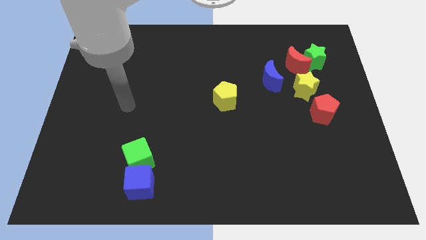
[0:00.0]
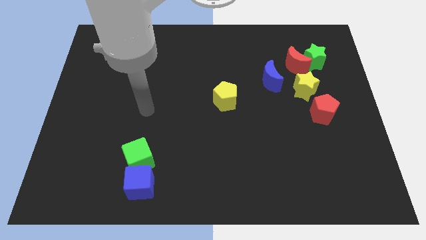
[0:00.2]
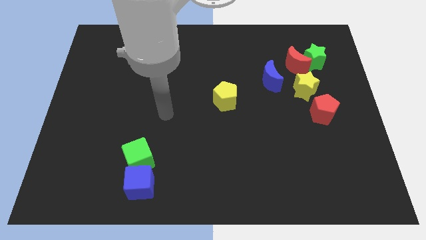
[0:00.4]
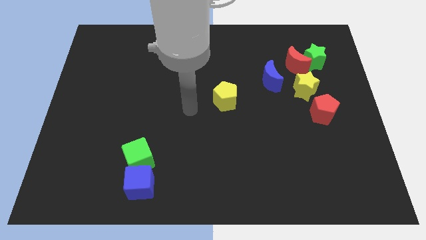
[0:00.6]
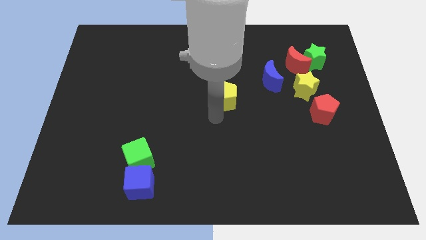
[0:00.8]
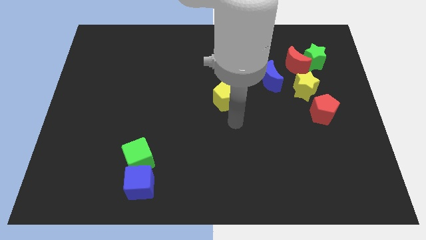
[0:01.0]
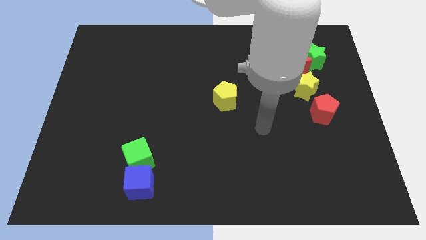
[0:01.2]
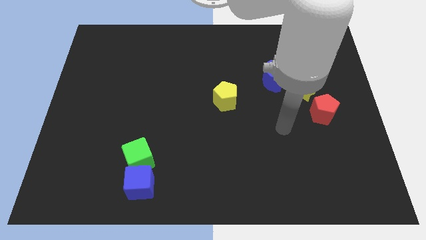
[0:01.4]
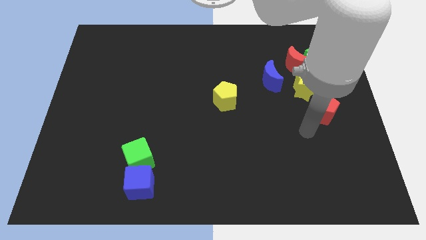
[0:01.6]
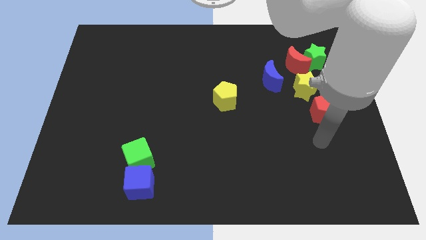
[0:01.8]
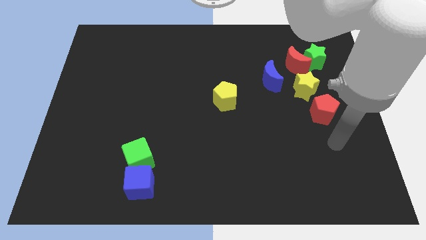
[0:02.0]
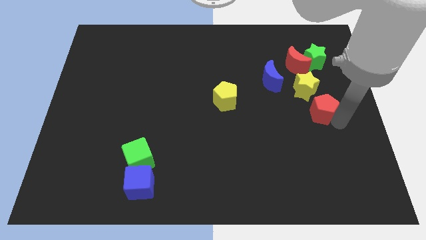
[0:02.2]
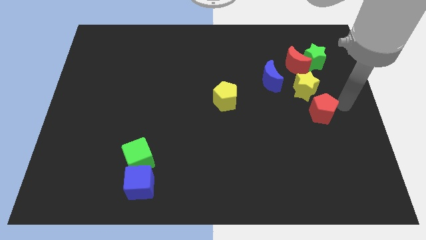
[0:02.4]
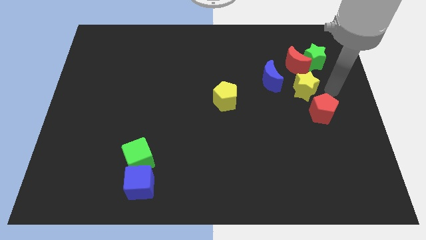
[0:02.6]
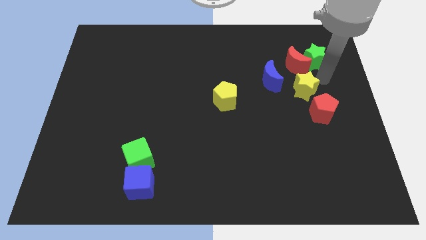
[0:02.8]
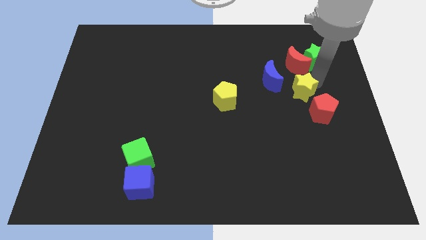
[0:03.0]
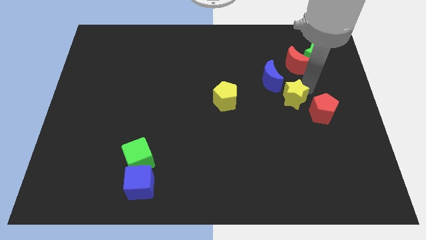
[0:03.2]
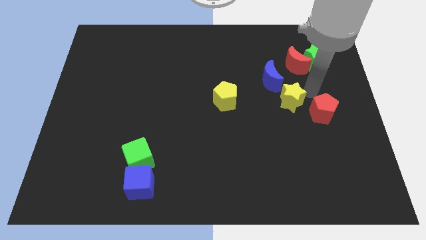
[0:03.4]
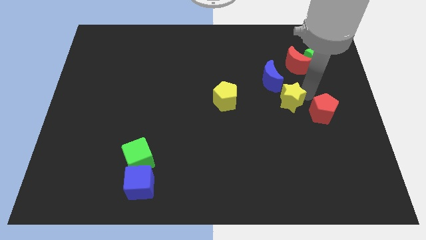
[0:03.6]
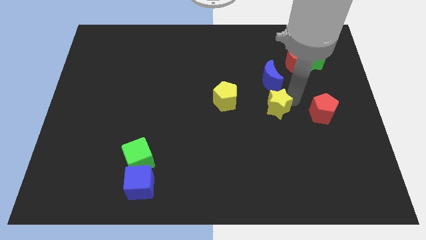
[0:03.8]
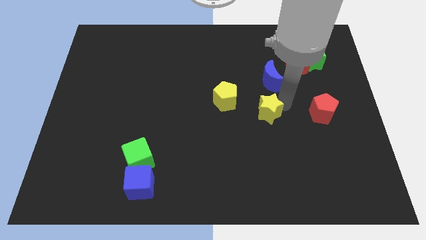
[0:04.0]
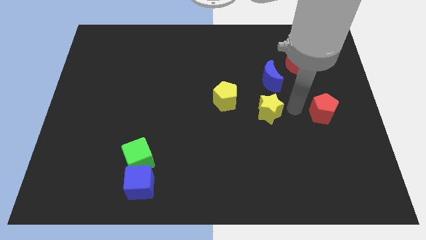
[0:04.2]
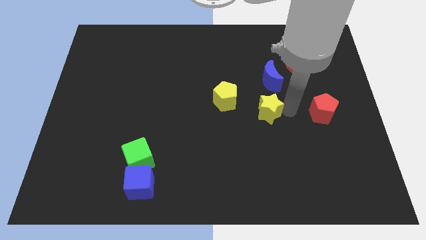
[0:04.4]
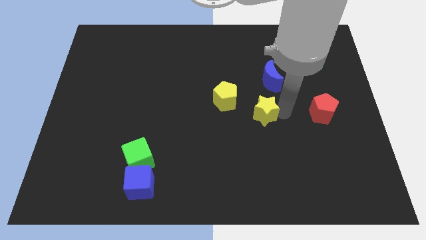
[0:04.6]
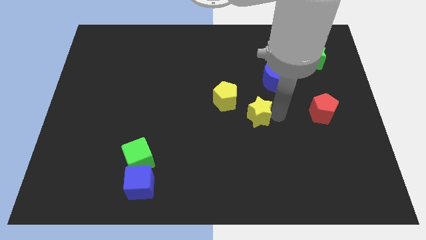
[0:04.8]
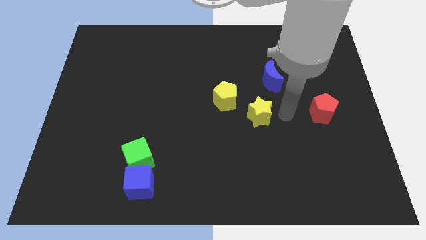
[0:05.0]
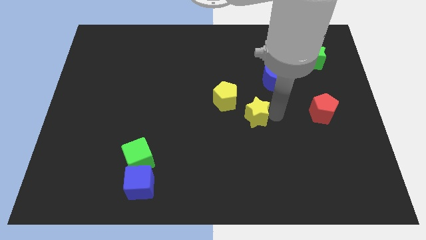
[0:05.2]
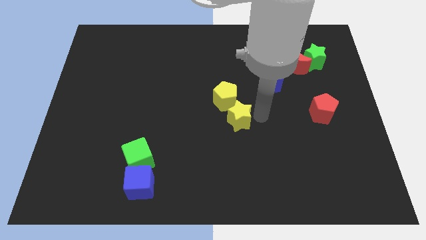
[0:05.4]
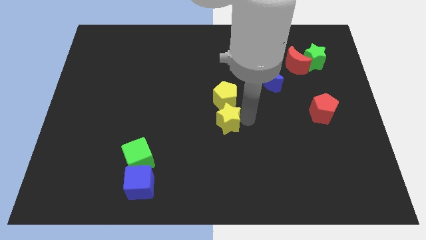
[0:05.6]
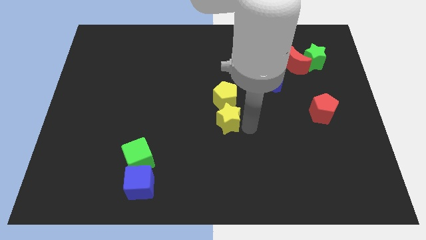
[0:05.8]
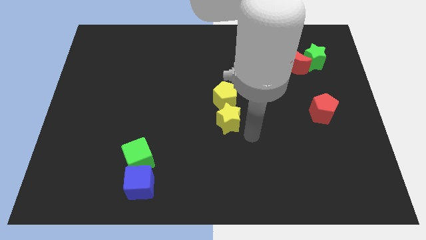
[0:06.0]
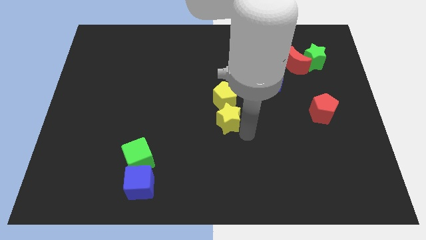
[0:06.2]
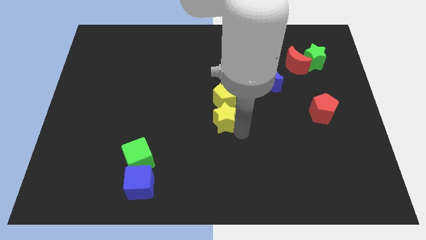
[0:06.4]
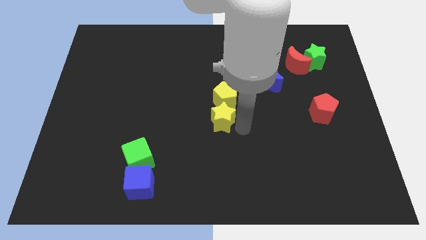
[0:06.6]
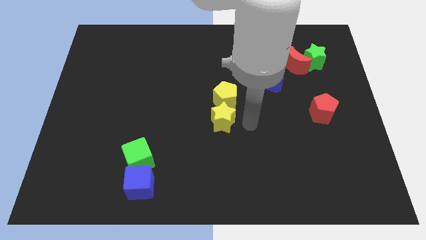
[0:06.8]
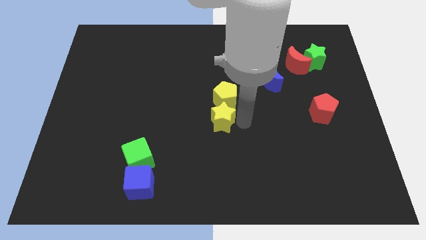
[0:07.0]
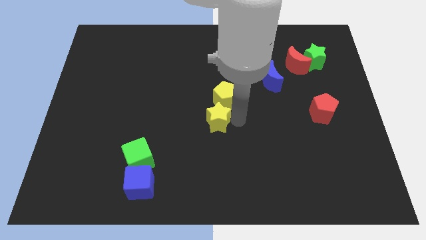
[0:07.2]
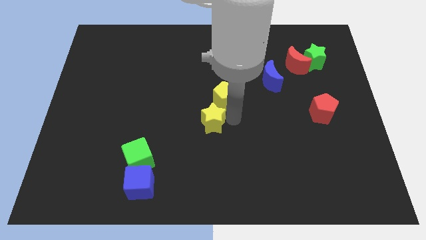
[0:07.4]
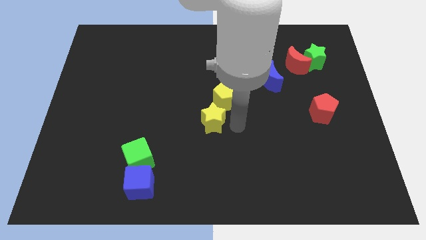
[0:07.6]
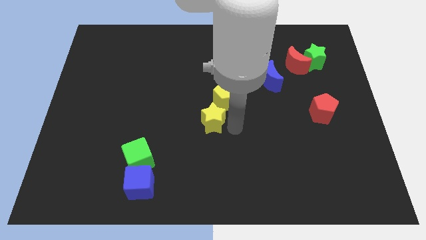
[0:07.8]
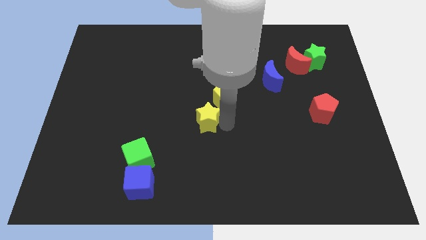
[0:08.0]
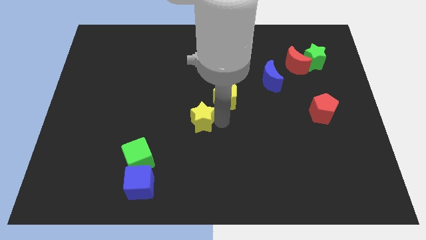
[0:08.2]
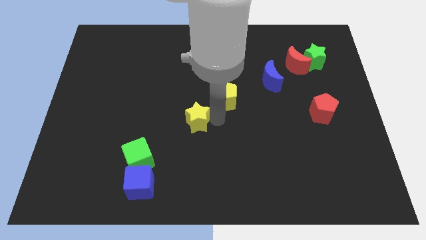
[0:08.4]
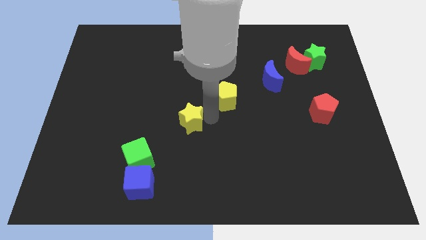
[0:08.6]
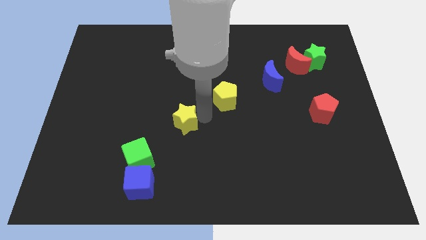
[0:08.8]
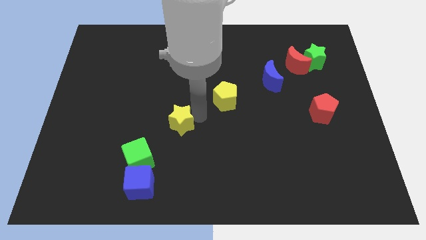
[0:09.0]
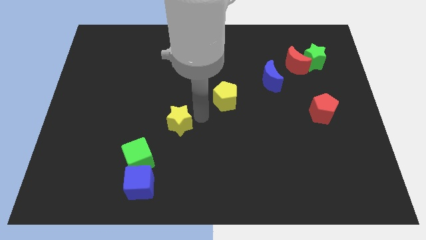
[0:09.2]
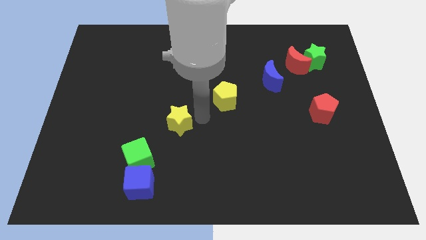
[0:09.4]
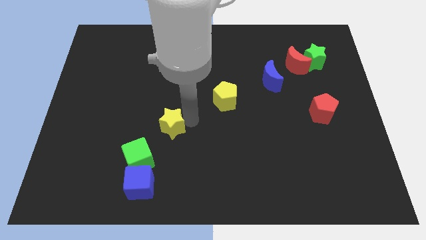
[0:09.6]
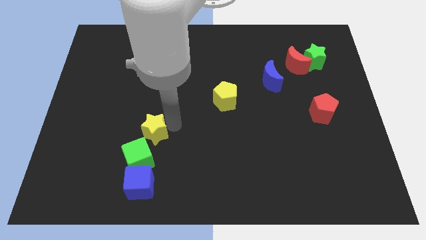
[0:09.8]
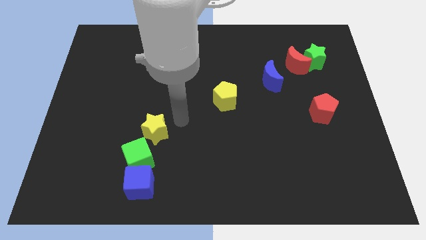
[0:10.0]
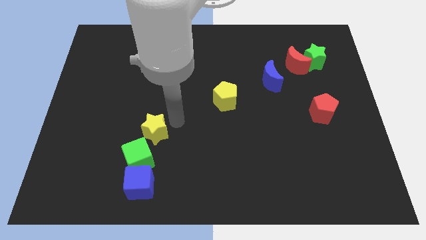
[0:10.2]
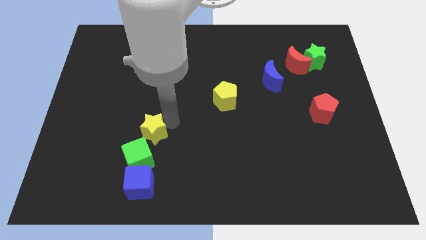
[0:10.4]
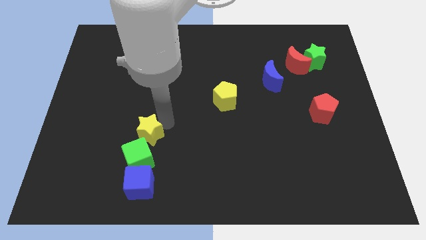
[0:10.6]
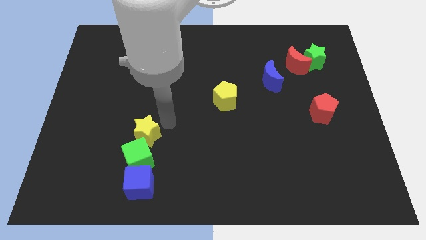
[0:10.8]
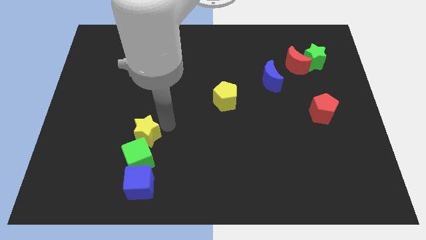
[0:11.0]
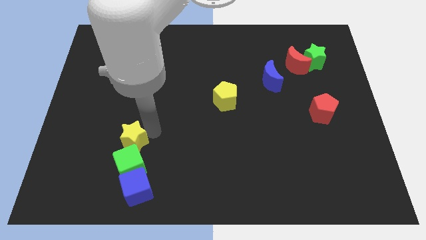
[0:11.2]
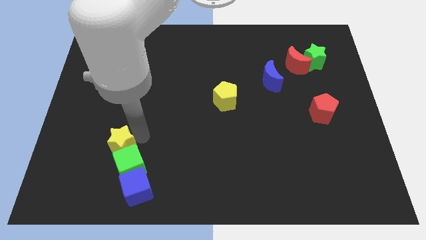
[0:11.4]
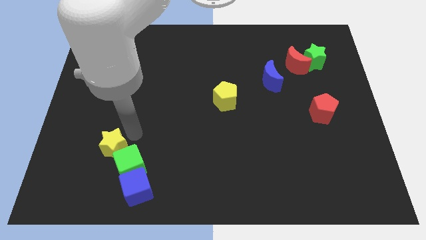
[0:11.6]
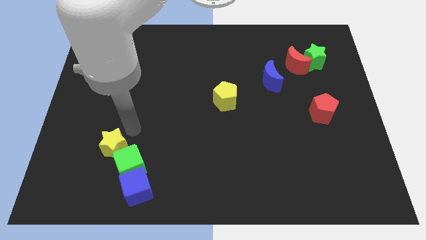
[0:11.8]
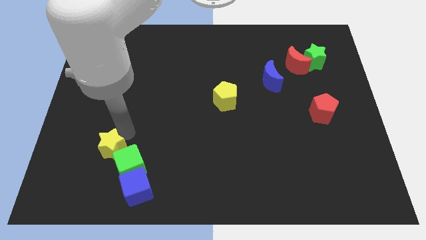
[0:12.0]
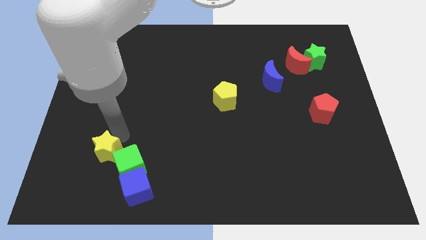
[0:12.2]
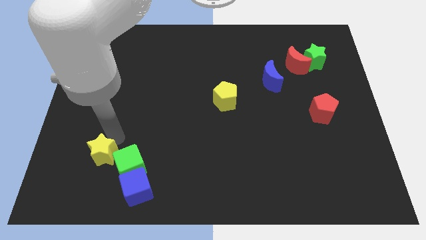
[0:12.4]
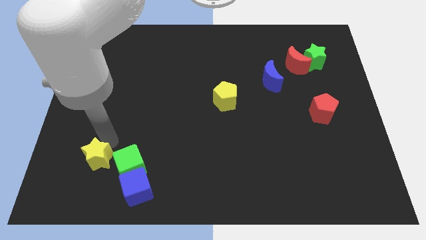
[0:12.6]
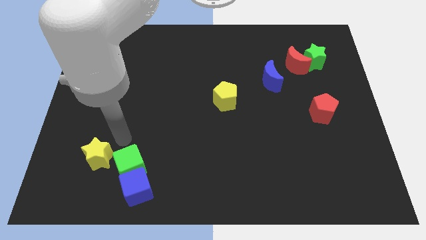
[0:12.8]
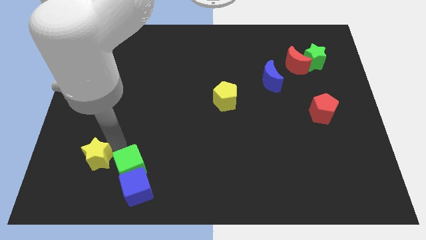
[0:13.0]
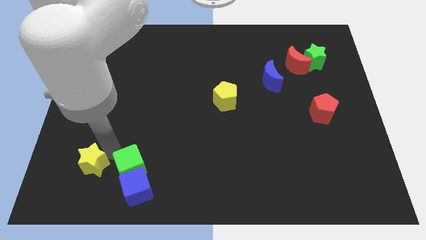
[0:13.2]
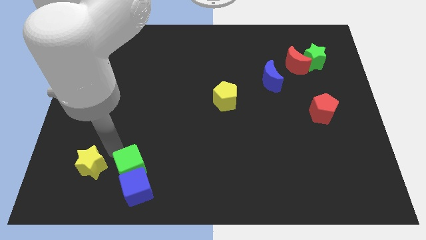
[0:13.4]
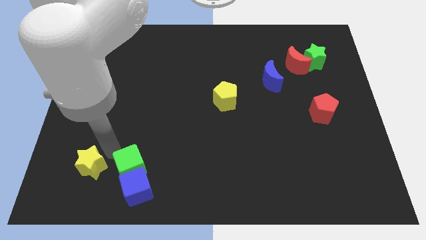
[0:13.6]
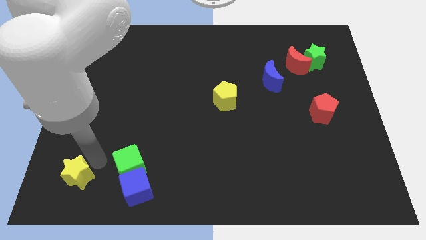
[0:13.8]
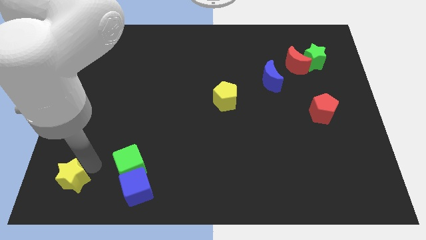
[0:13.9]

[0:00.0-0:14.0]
put the yellow star to the bottom left corner
